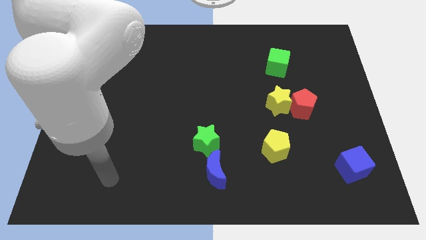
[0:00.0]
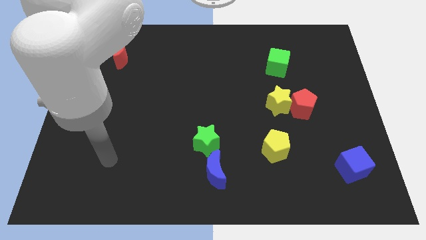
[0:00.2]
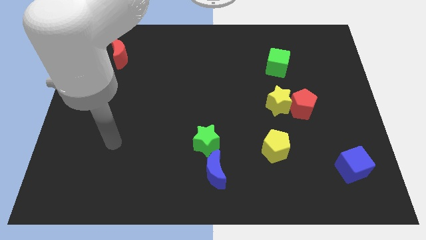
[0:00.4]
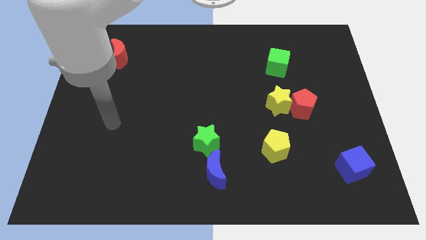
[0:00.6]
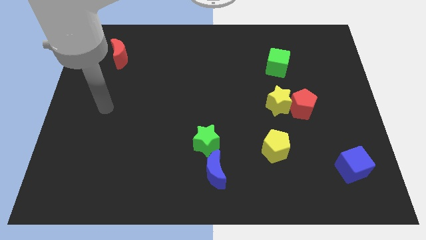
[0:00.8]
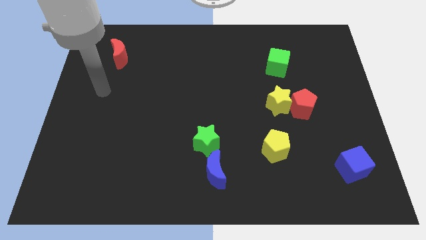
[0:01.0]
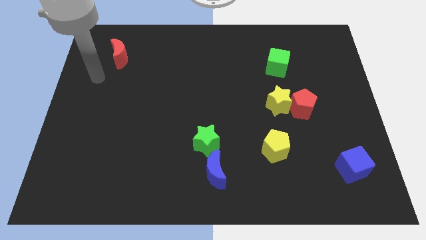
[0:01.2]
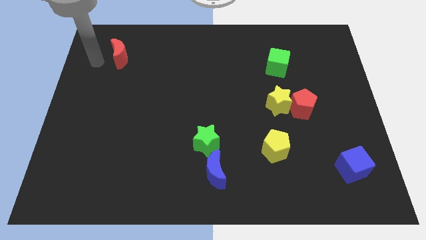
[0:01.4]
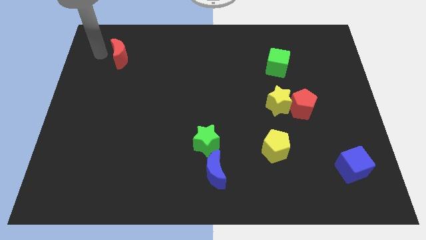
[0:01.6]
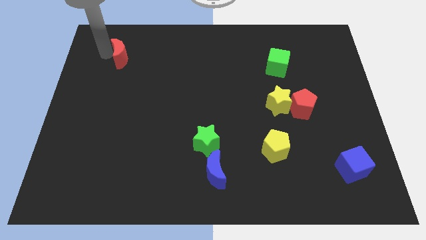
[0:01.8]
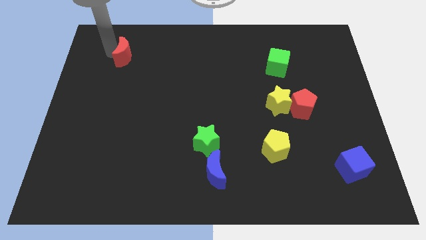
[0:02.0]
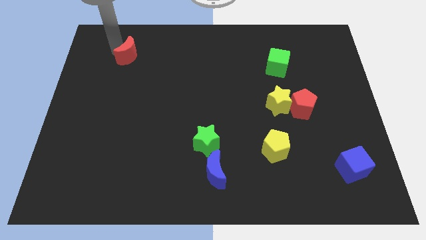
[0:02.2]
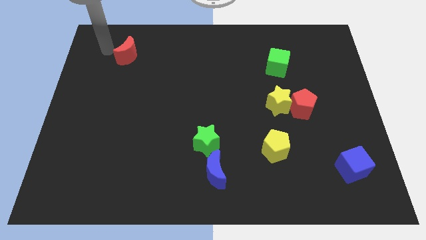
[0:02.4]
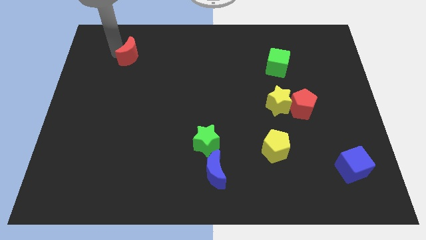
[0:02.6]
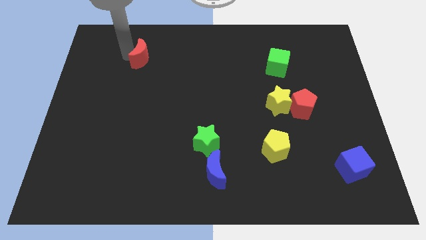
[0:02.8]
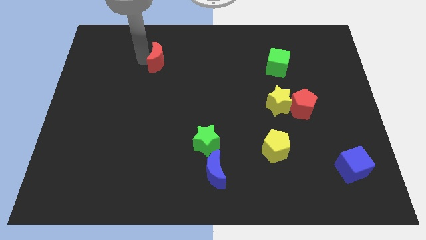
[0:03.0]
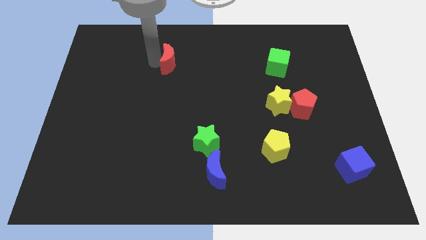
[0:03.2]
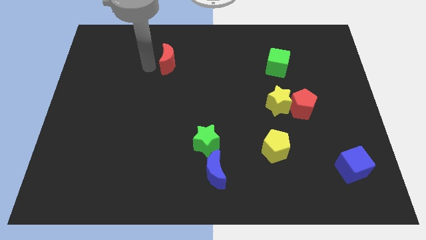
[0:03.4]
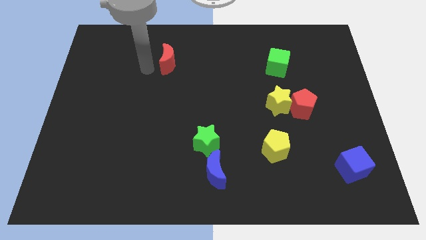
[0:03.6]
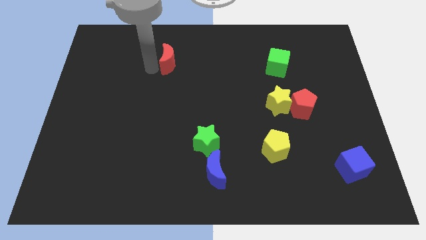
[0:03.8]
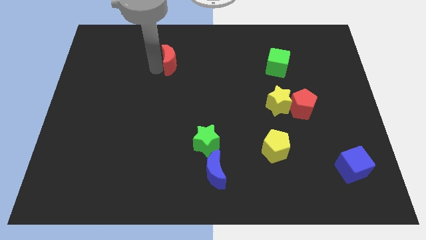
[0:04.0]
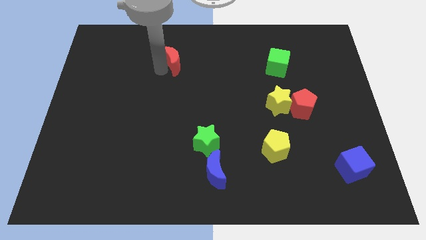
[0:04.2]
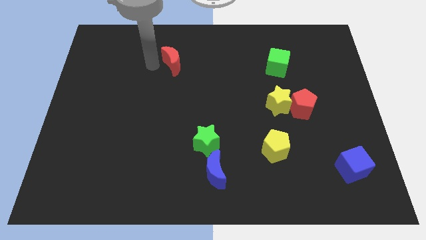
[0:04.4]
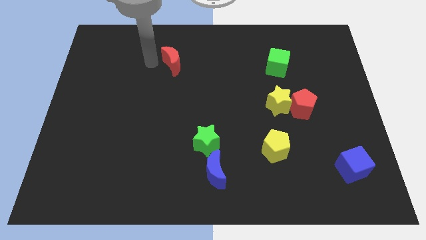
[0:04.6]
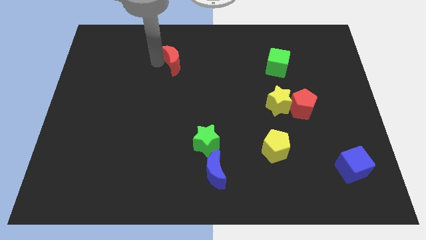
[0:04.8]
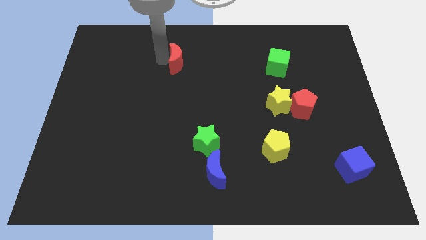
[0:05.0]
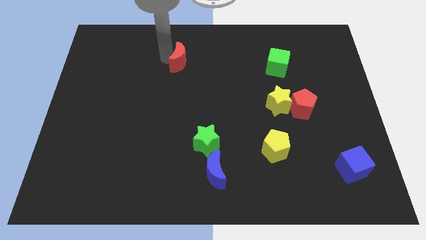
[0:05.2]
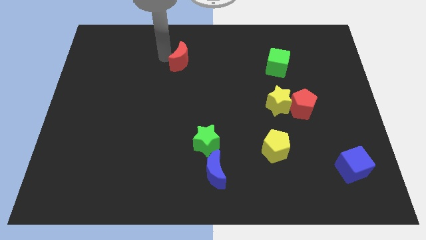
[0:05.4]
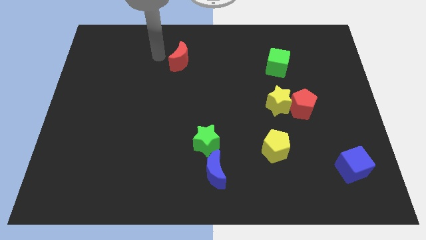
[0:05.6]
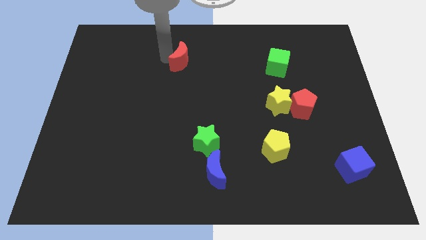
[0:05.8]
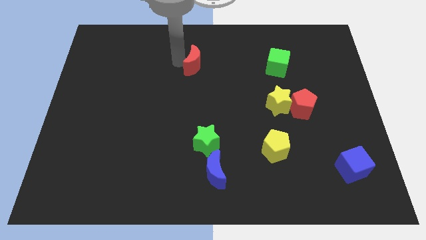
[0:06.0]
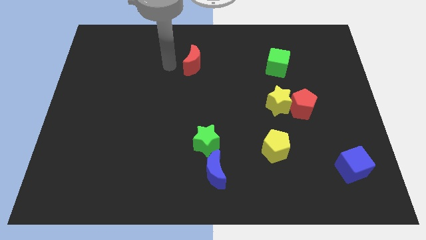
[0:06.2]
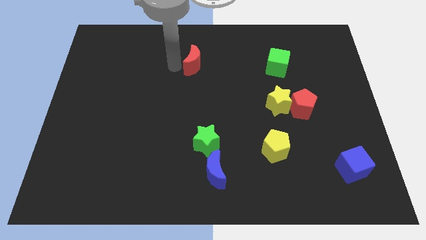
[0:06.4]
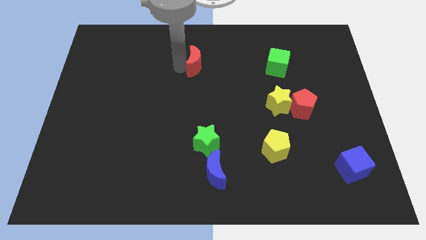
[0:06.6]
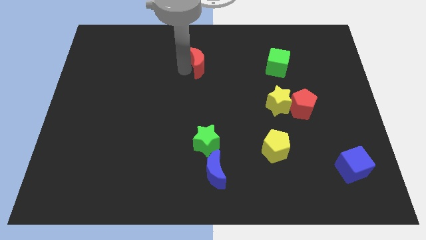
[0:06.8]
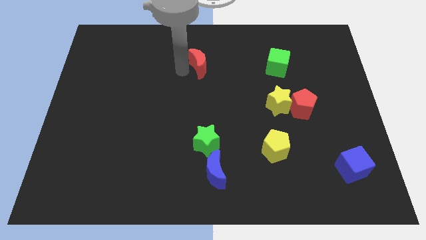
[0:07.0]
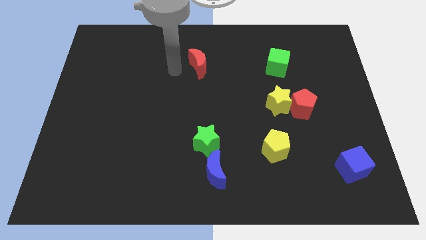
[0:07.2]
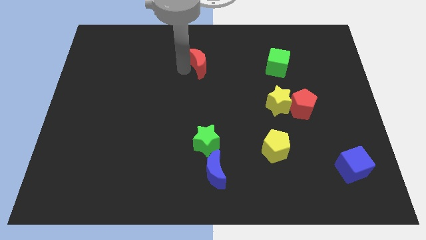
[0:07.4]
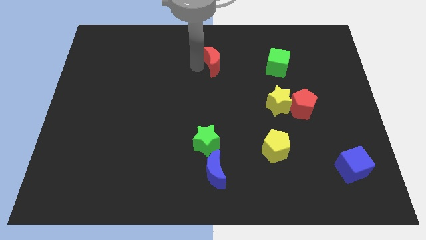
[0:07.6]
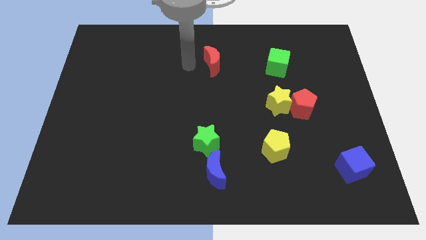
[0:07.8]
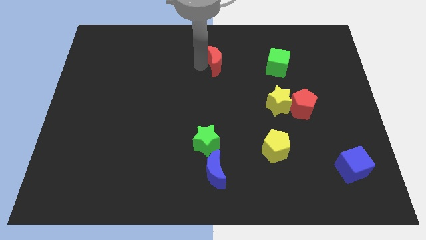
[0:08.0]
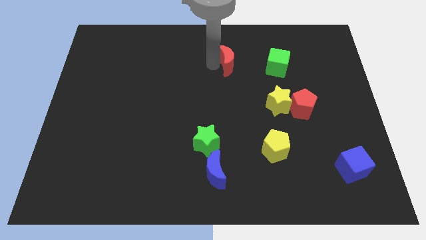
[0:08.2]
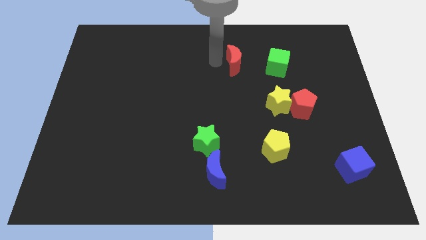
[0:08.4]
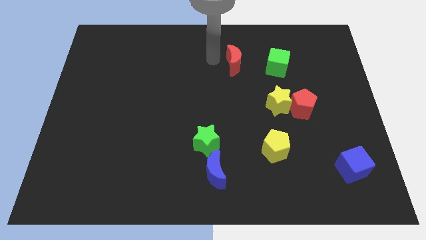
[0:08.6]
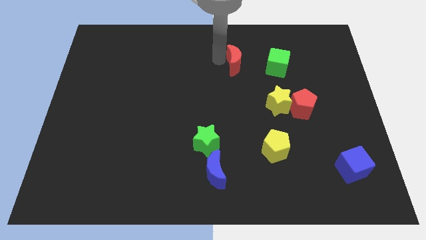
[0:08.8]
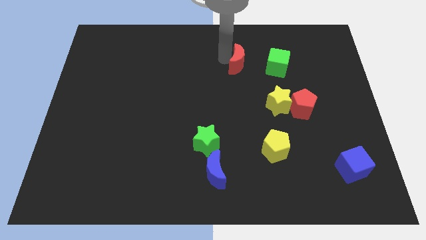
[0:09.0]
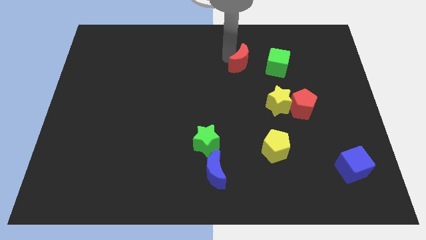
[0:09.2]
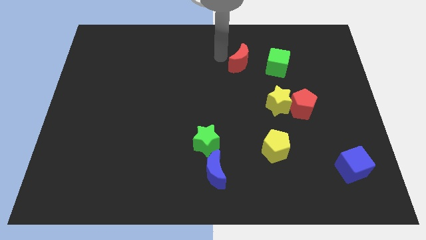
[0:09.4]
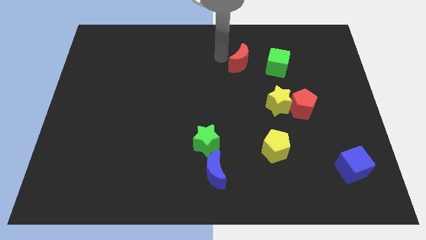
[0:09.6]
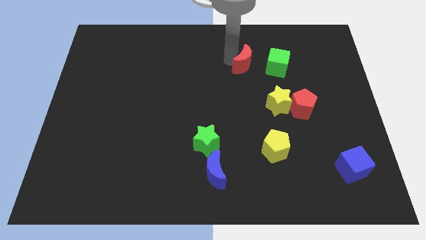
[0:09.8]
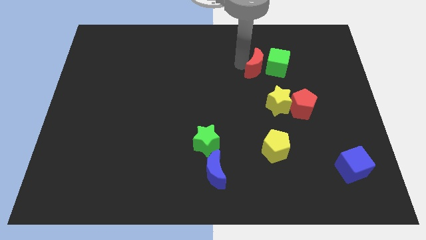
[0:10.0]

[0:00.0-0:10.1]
push the red moon close to the green cube

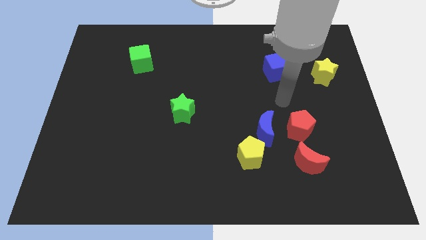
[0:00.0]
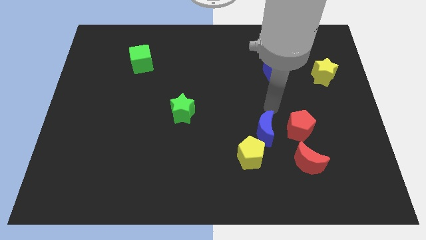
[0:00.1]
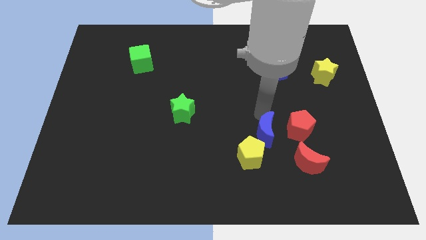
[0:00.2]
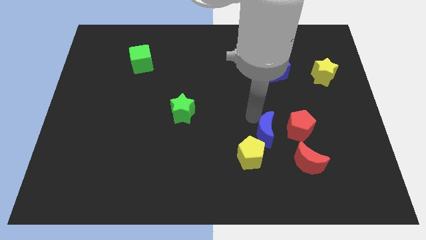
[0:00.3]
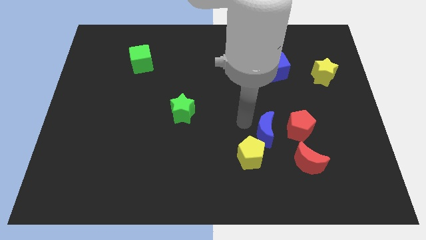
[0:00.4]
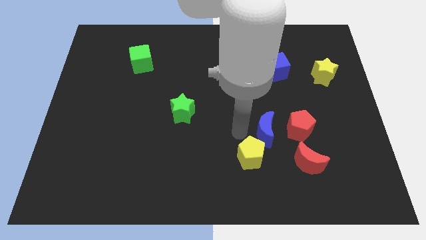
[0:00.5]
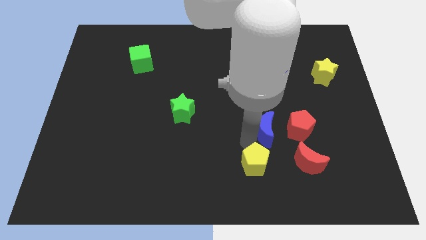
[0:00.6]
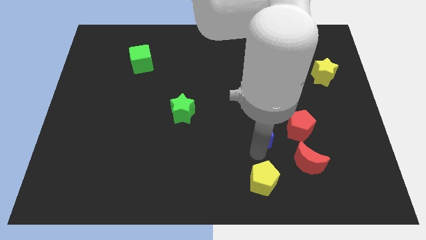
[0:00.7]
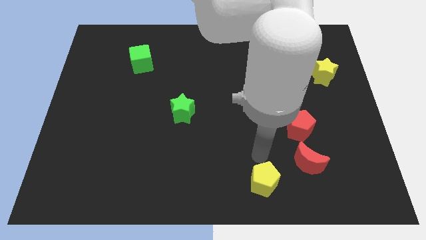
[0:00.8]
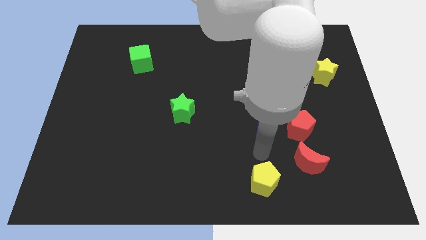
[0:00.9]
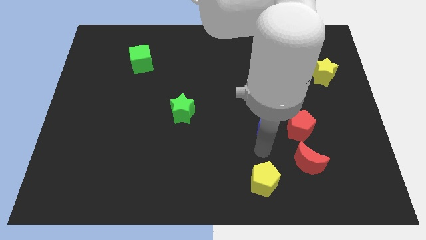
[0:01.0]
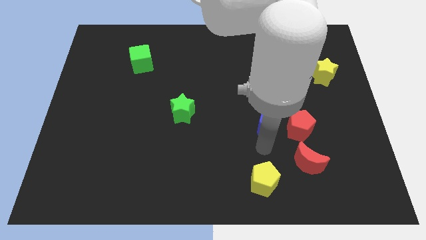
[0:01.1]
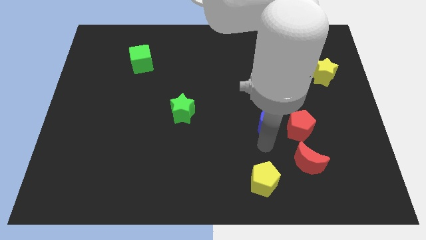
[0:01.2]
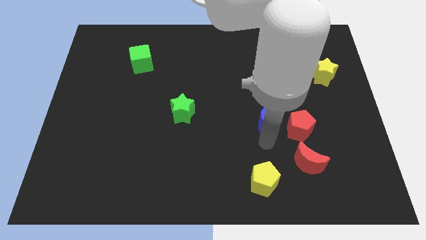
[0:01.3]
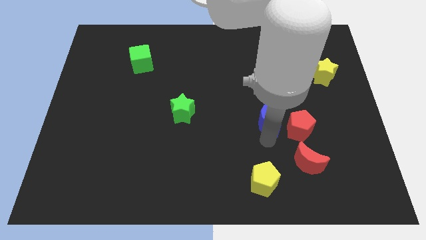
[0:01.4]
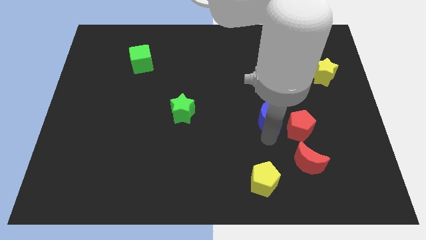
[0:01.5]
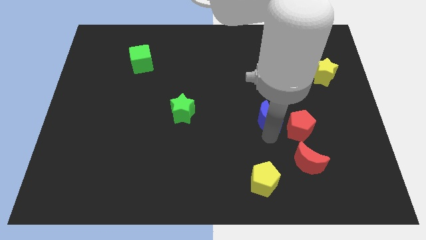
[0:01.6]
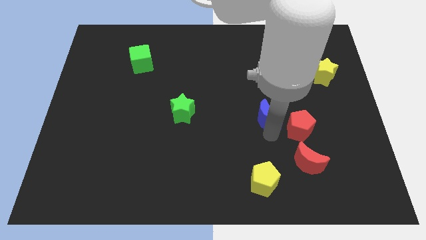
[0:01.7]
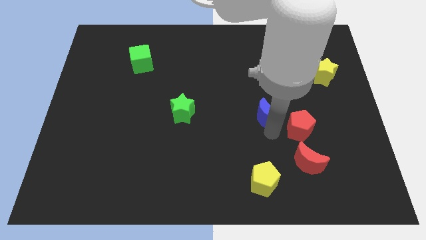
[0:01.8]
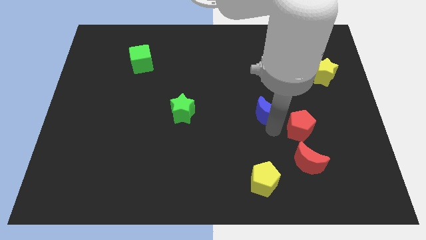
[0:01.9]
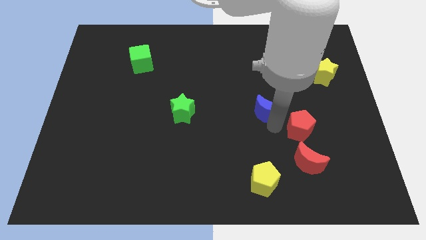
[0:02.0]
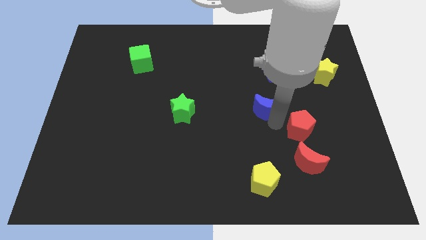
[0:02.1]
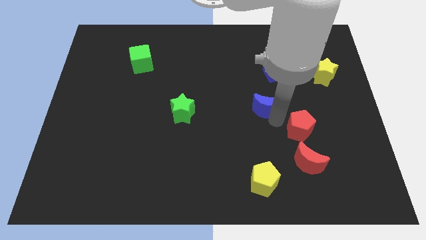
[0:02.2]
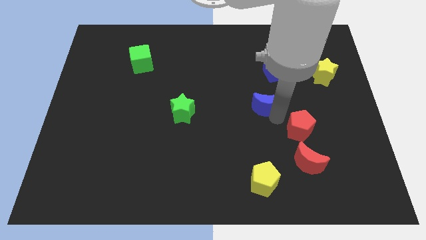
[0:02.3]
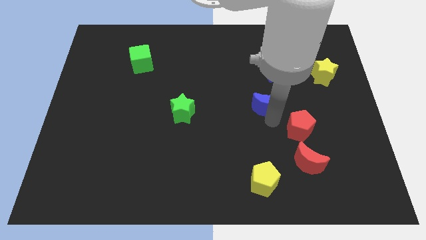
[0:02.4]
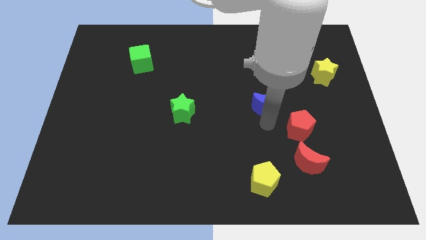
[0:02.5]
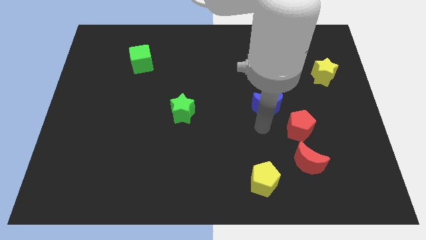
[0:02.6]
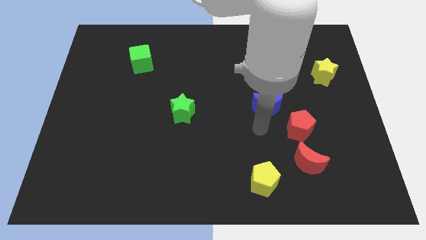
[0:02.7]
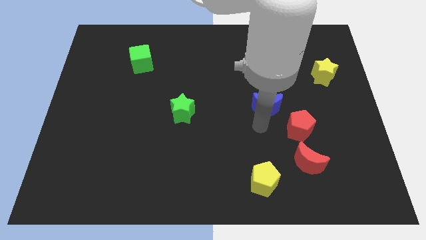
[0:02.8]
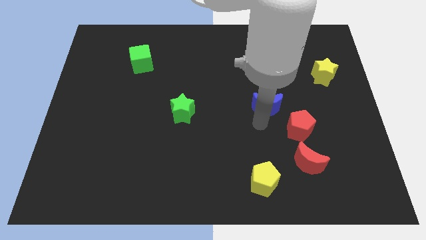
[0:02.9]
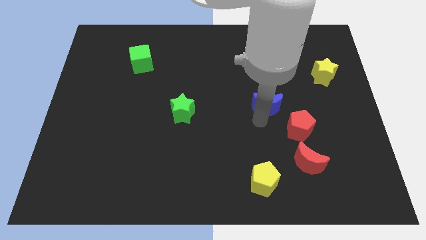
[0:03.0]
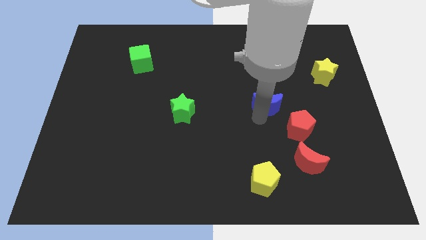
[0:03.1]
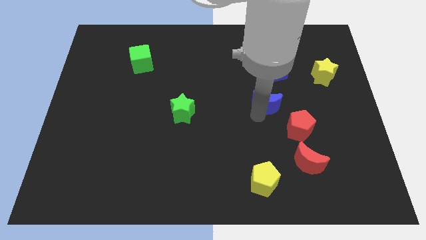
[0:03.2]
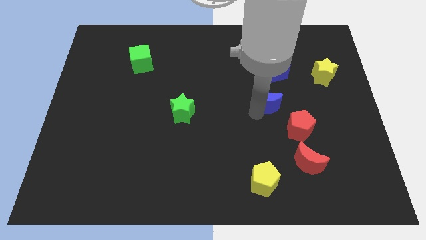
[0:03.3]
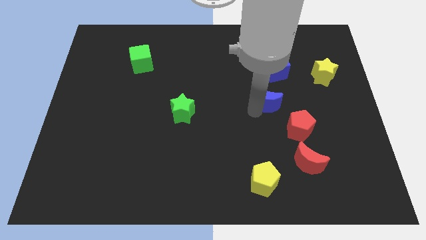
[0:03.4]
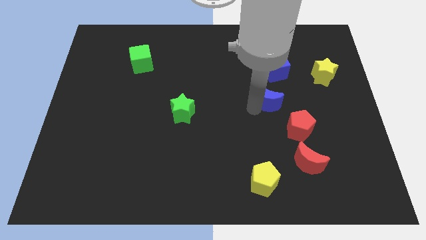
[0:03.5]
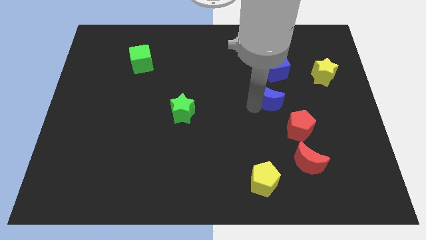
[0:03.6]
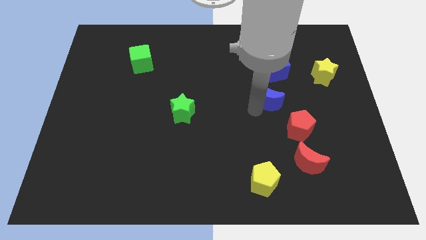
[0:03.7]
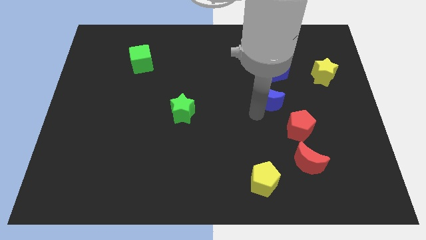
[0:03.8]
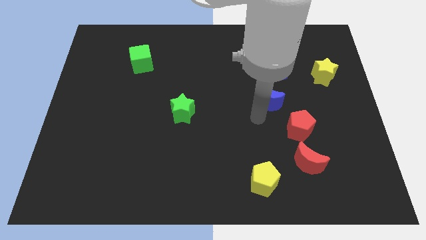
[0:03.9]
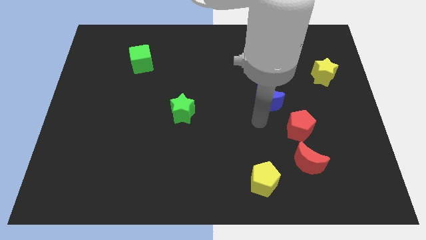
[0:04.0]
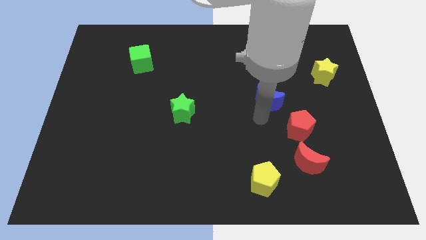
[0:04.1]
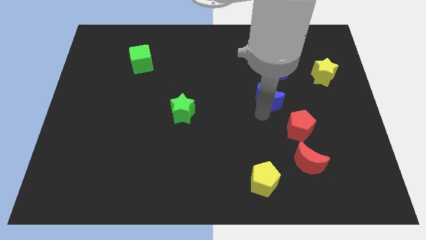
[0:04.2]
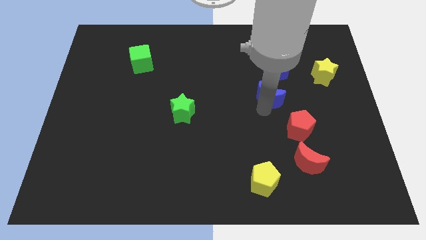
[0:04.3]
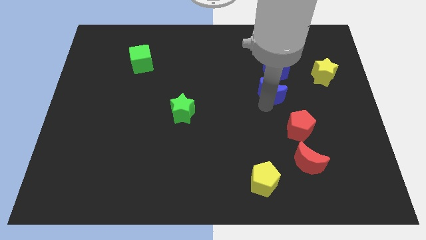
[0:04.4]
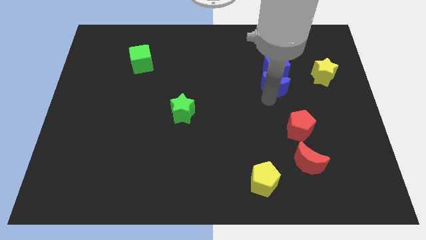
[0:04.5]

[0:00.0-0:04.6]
slide the blue moon next to the blue cube
